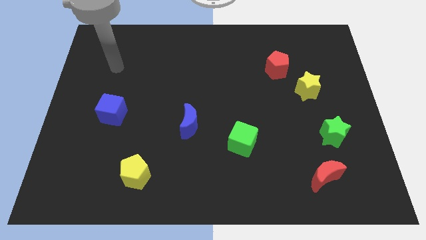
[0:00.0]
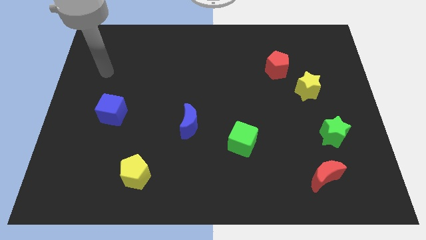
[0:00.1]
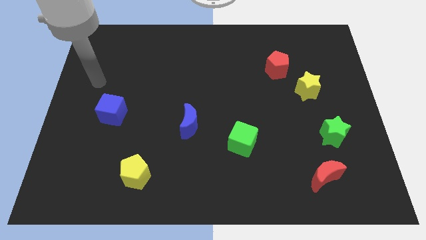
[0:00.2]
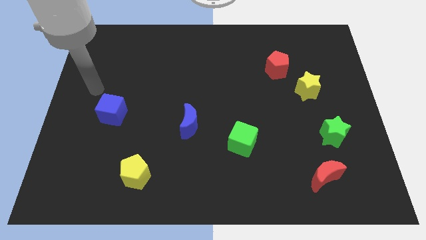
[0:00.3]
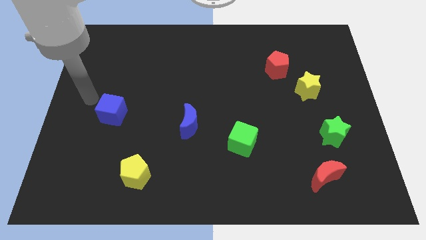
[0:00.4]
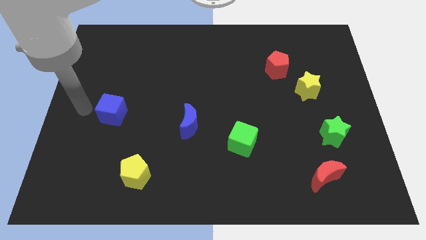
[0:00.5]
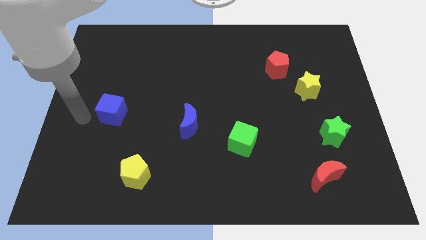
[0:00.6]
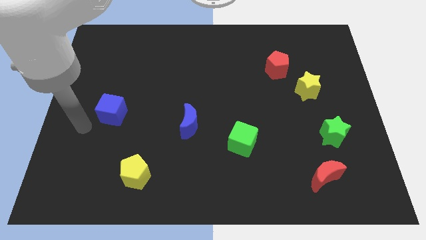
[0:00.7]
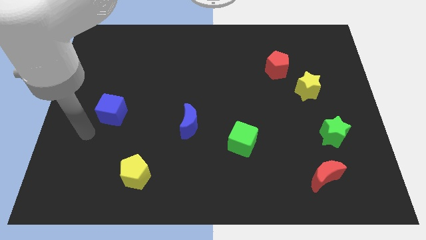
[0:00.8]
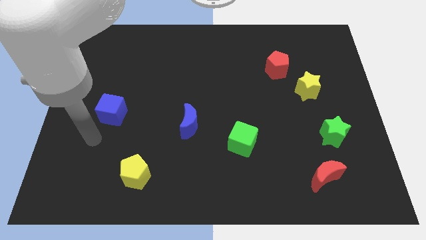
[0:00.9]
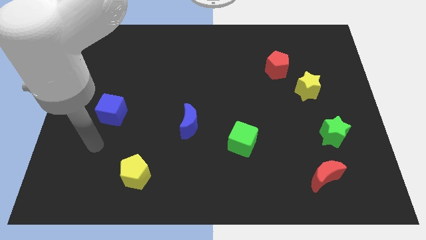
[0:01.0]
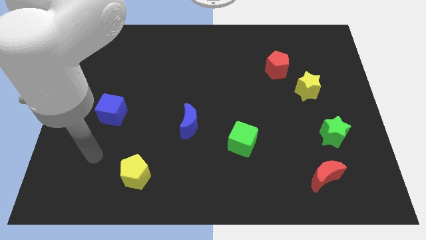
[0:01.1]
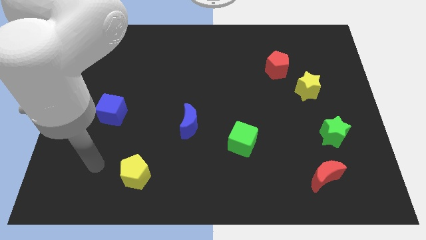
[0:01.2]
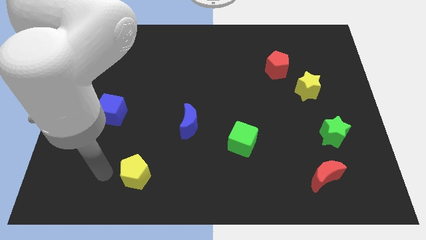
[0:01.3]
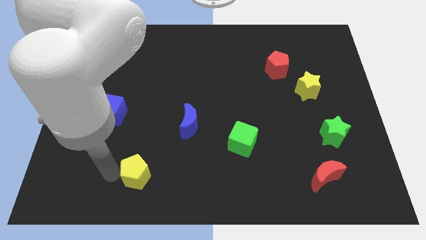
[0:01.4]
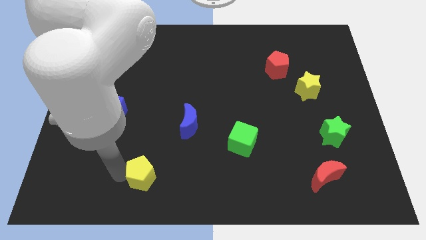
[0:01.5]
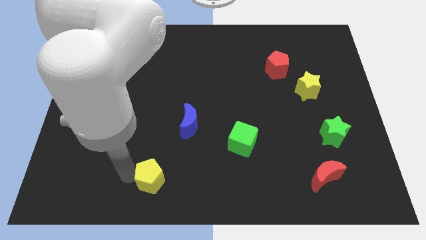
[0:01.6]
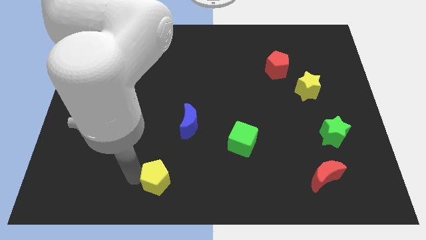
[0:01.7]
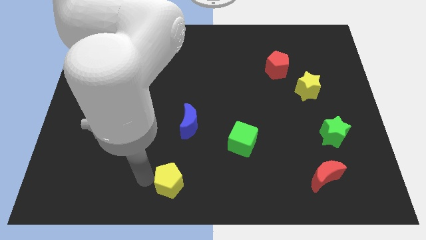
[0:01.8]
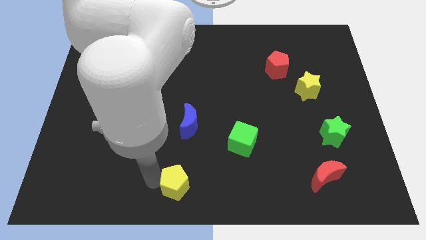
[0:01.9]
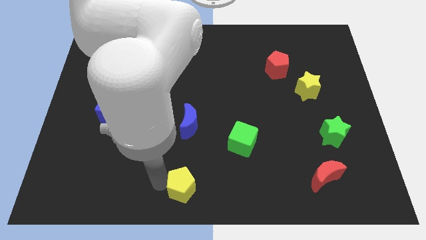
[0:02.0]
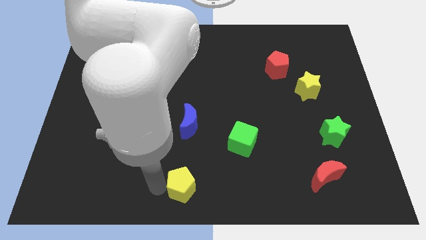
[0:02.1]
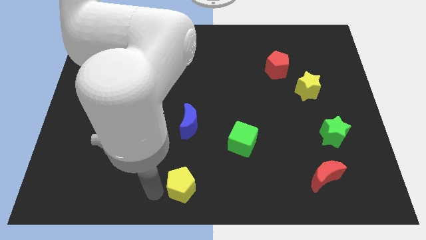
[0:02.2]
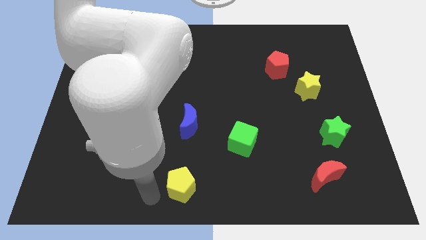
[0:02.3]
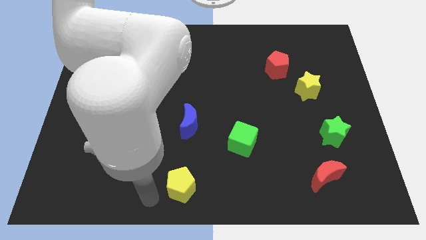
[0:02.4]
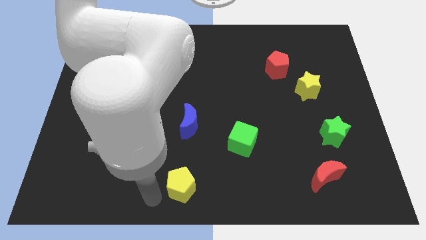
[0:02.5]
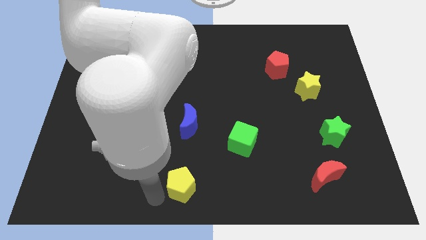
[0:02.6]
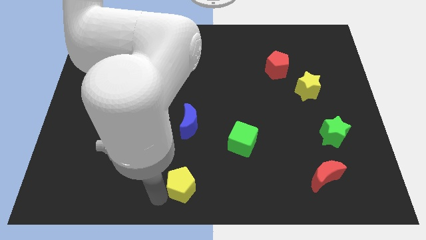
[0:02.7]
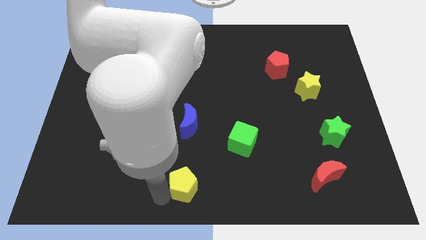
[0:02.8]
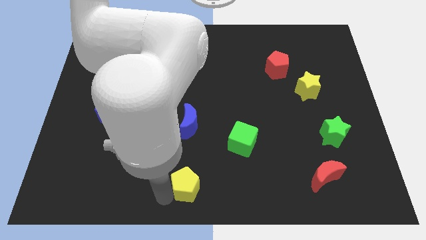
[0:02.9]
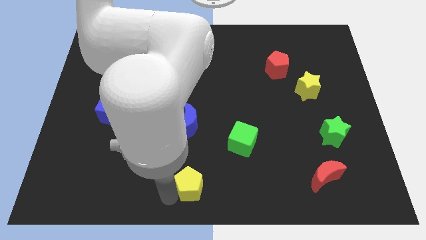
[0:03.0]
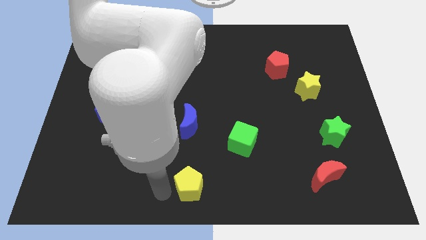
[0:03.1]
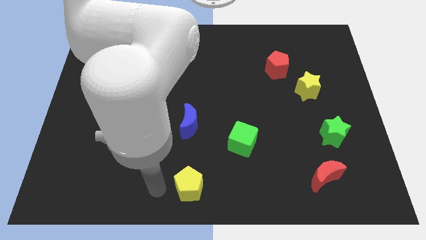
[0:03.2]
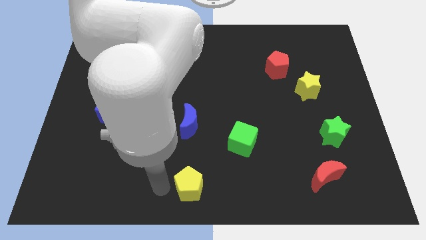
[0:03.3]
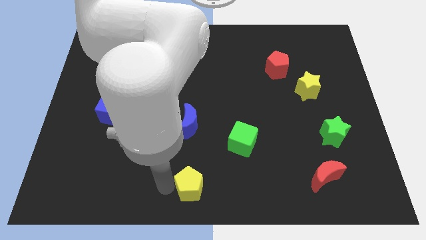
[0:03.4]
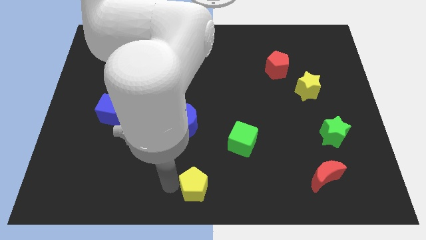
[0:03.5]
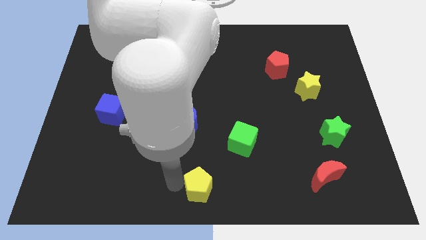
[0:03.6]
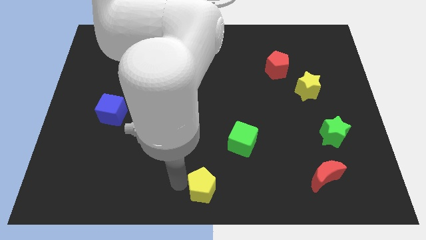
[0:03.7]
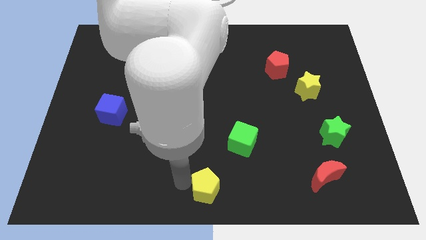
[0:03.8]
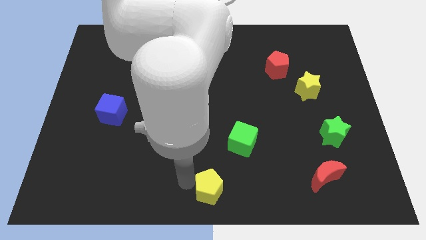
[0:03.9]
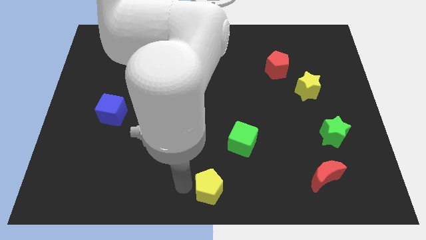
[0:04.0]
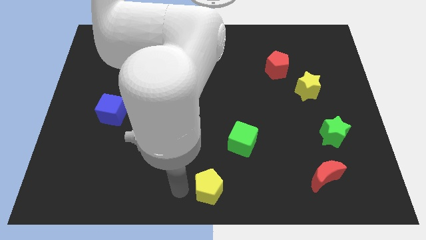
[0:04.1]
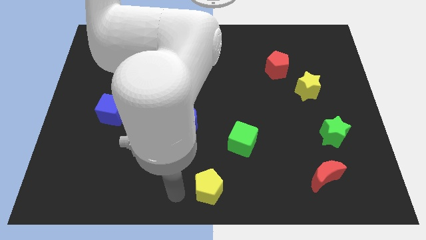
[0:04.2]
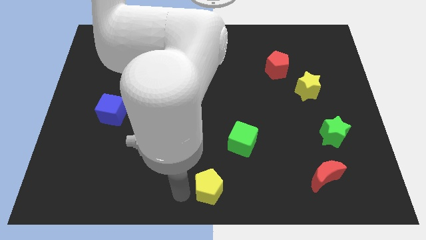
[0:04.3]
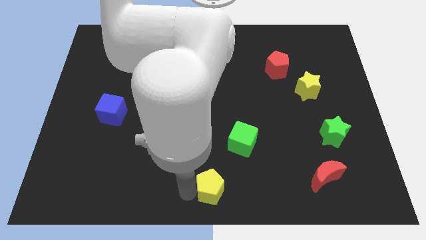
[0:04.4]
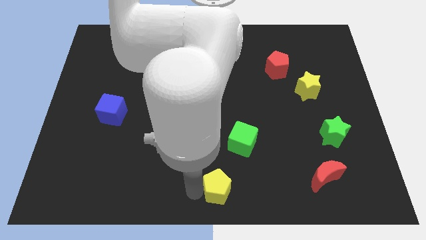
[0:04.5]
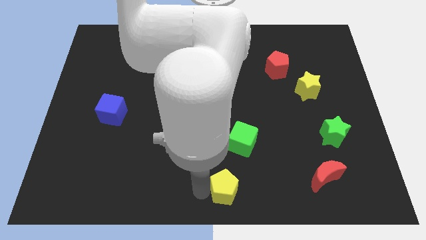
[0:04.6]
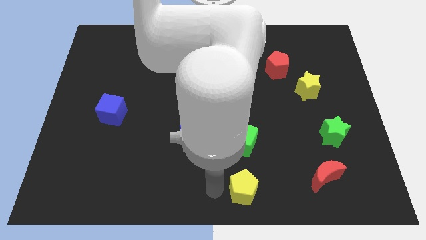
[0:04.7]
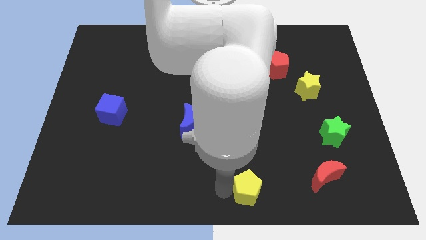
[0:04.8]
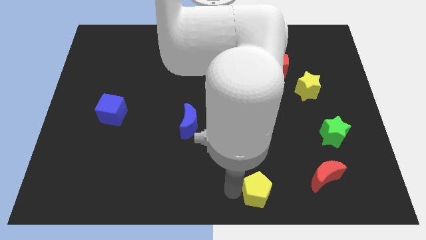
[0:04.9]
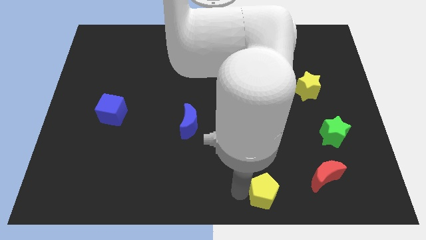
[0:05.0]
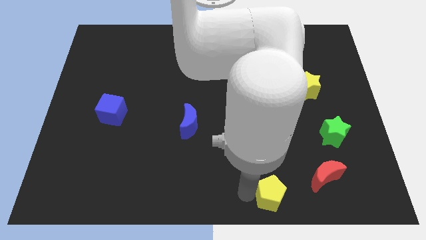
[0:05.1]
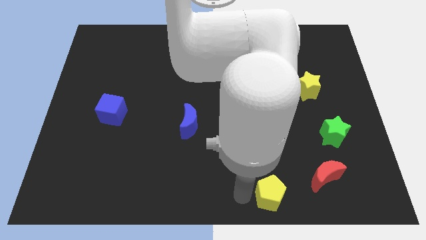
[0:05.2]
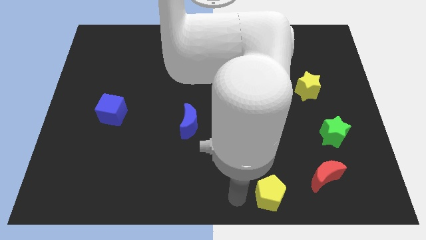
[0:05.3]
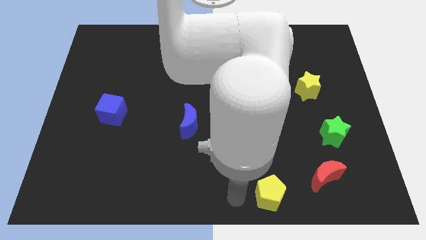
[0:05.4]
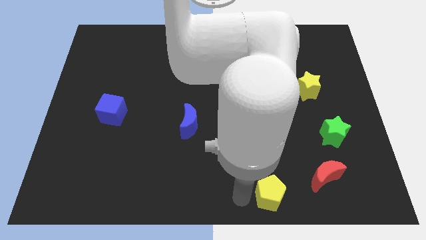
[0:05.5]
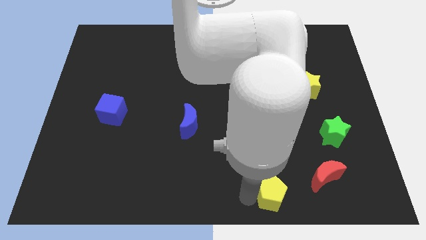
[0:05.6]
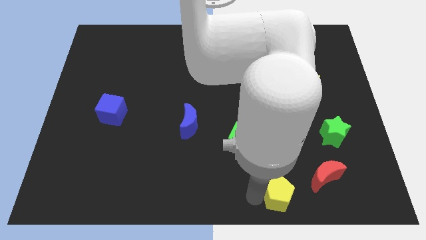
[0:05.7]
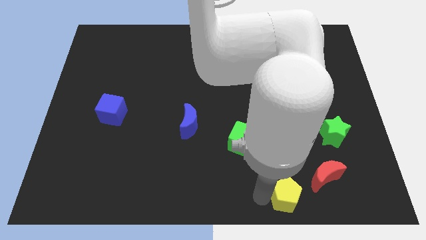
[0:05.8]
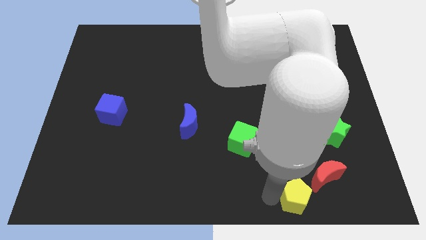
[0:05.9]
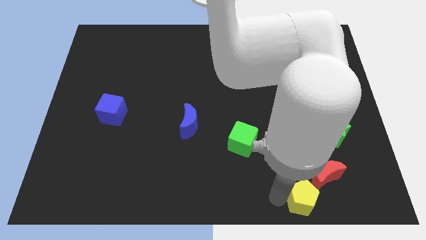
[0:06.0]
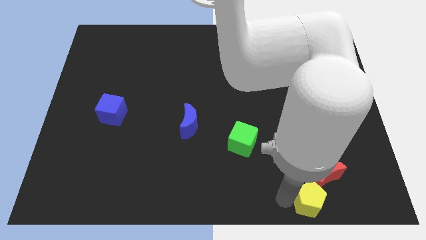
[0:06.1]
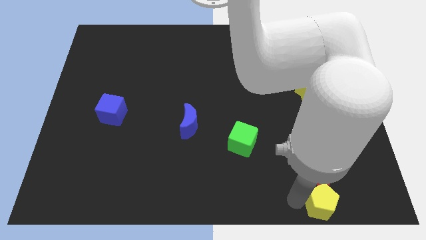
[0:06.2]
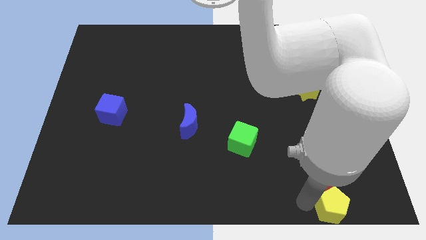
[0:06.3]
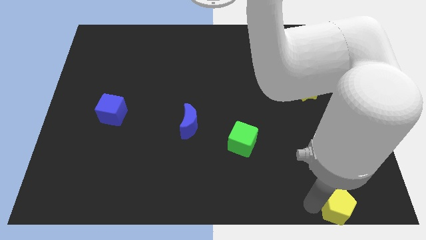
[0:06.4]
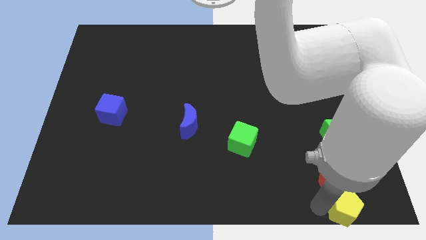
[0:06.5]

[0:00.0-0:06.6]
move the yellow pentagon to the bottom right corner
